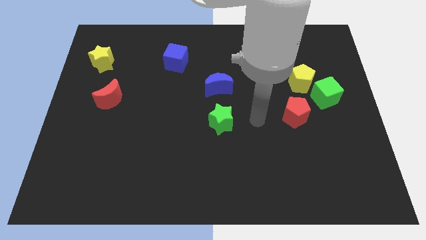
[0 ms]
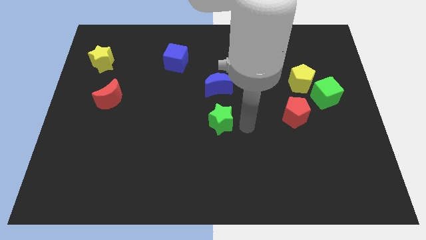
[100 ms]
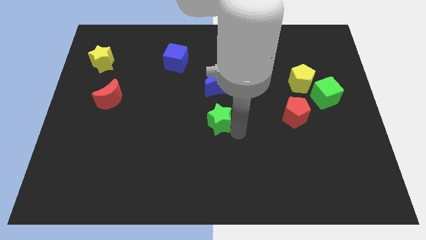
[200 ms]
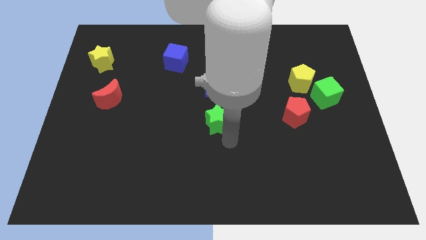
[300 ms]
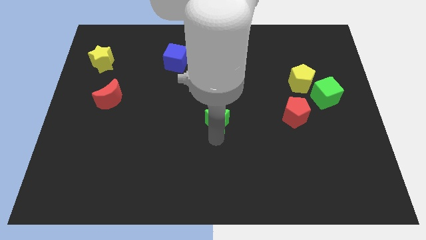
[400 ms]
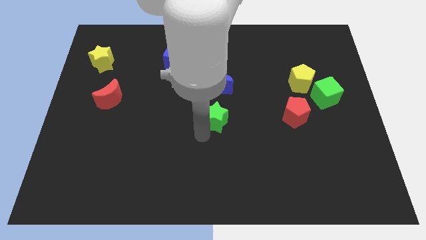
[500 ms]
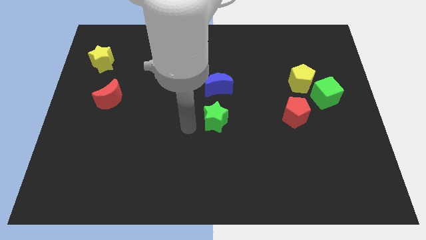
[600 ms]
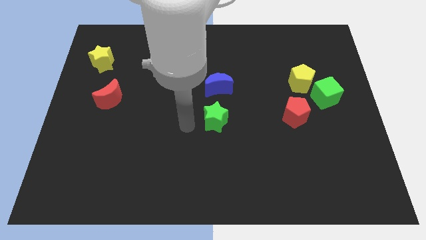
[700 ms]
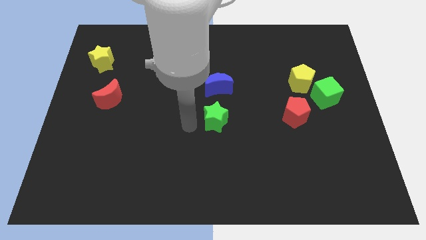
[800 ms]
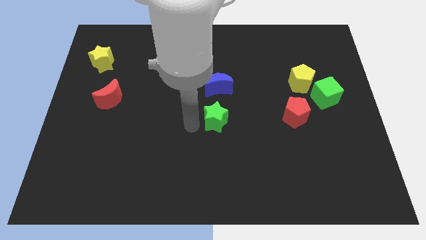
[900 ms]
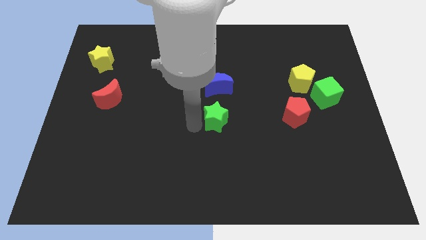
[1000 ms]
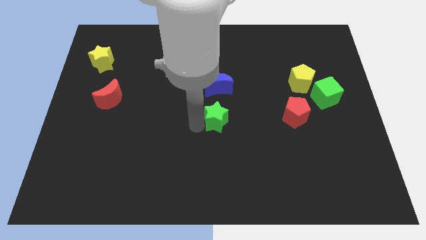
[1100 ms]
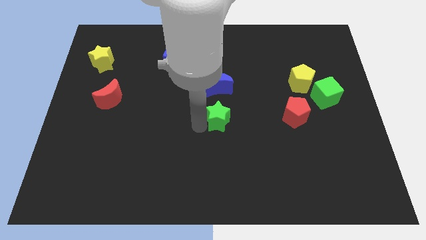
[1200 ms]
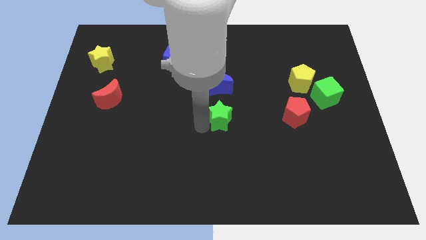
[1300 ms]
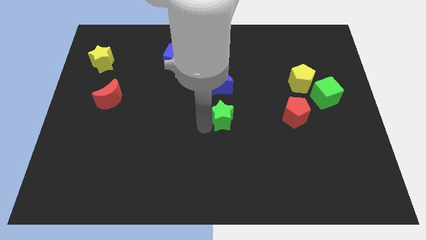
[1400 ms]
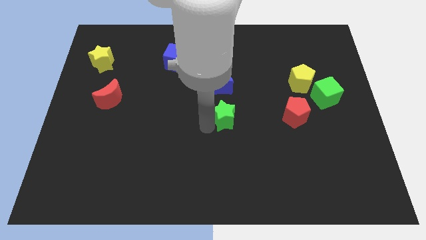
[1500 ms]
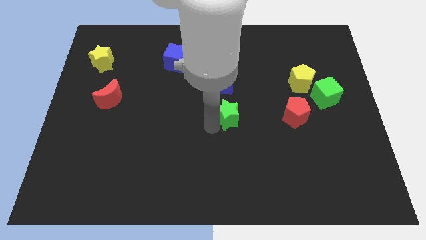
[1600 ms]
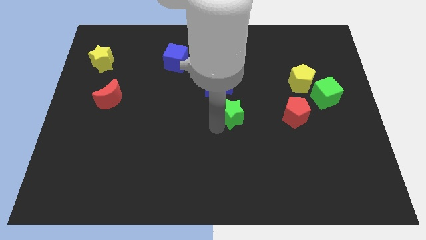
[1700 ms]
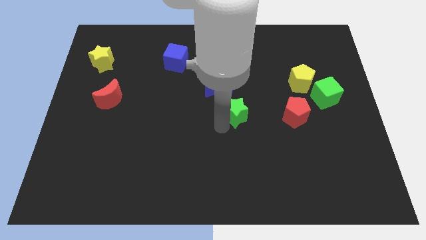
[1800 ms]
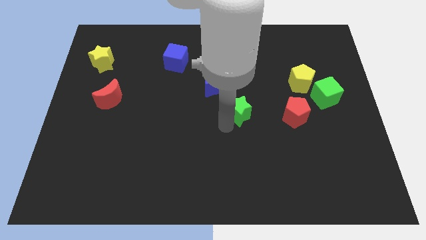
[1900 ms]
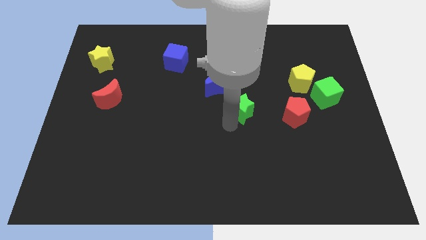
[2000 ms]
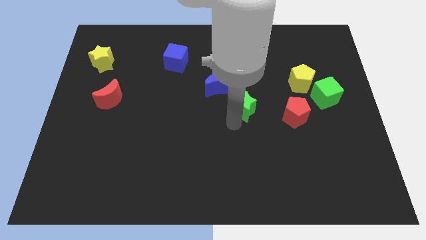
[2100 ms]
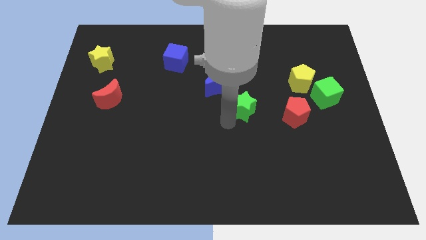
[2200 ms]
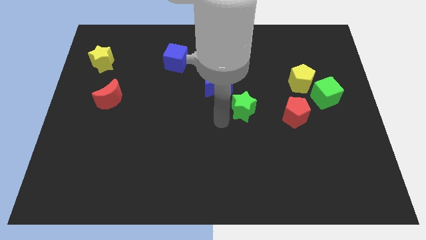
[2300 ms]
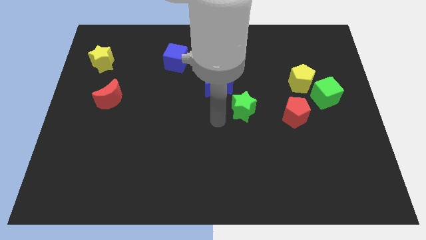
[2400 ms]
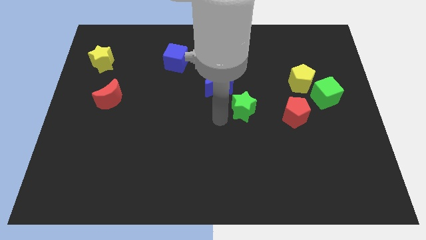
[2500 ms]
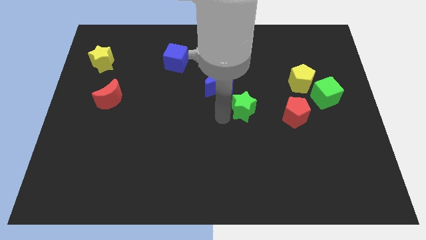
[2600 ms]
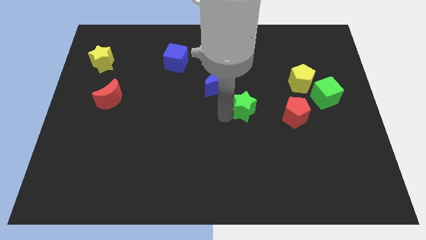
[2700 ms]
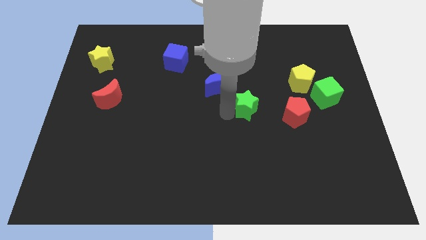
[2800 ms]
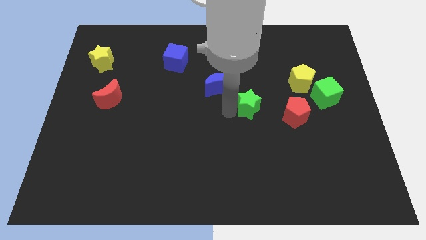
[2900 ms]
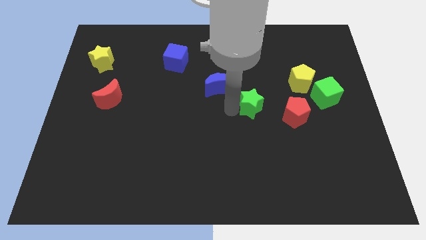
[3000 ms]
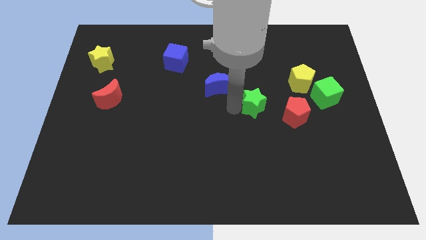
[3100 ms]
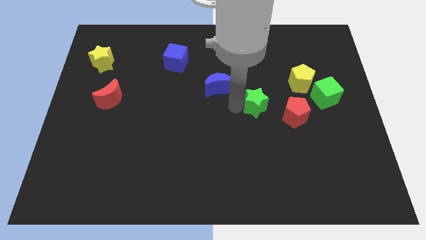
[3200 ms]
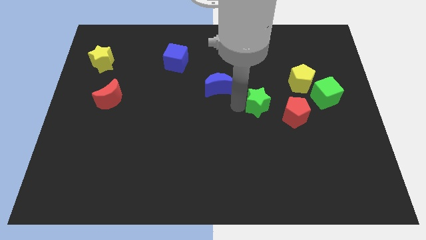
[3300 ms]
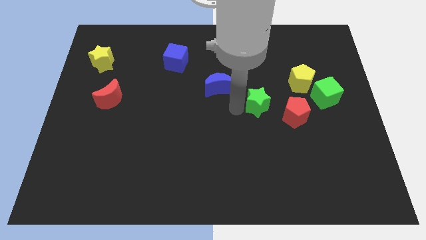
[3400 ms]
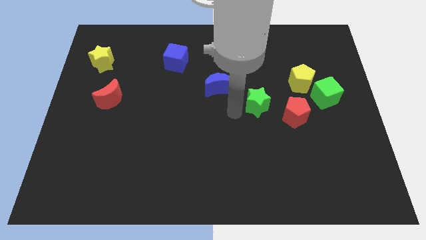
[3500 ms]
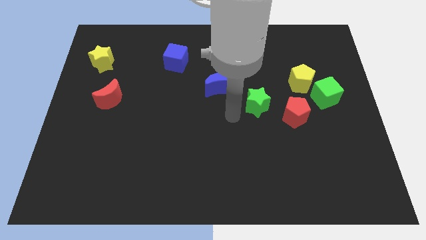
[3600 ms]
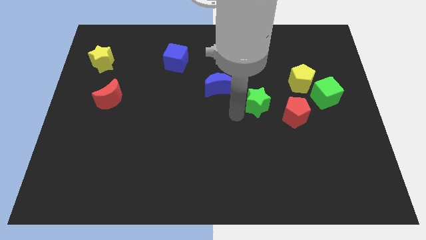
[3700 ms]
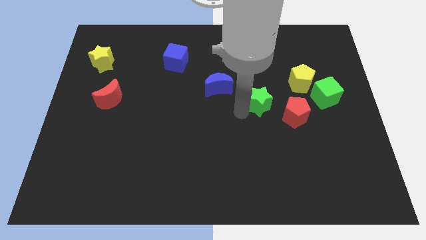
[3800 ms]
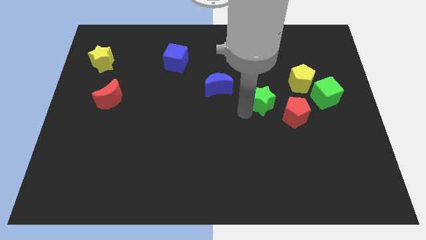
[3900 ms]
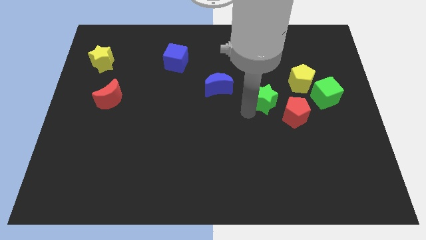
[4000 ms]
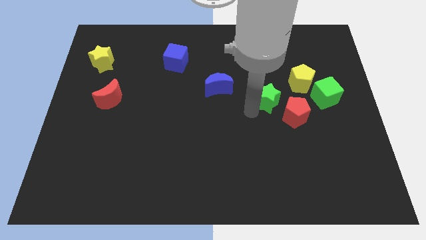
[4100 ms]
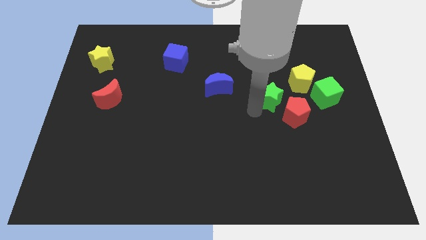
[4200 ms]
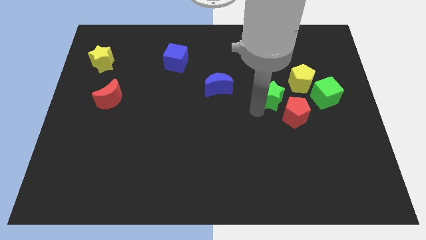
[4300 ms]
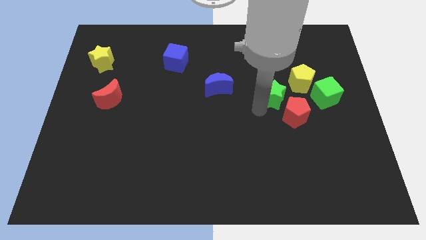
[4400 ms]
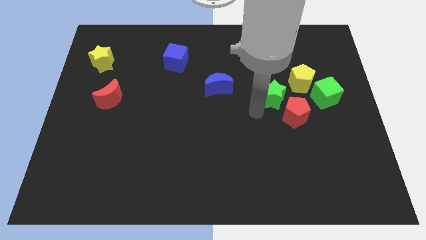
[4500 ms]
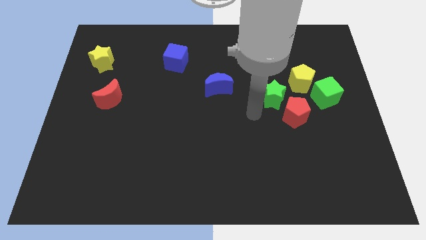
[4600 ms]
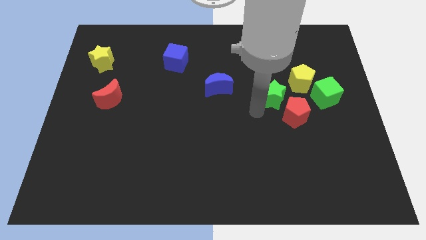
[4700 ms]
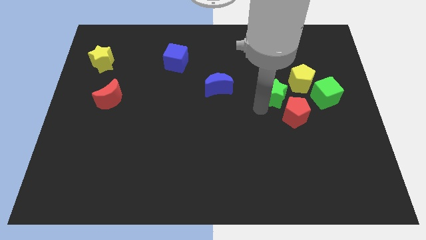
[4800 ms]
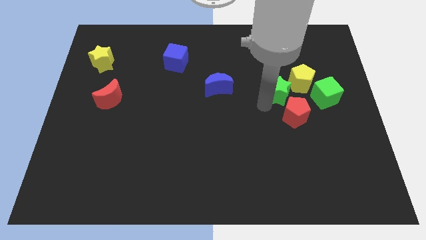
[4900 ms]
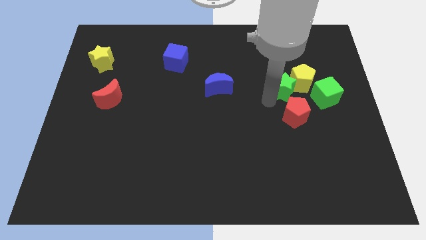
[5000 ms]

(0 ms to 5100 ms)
push the green star next to the yellow pentagon
